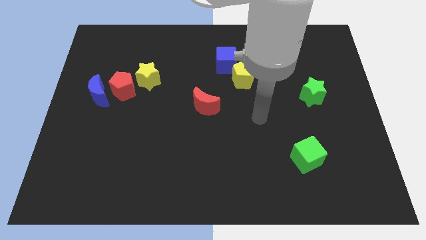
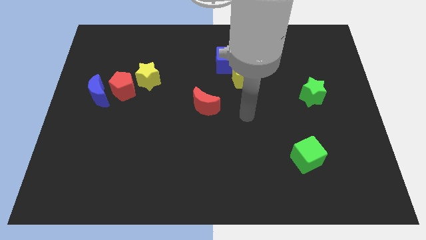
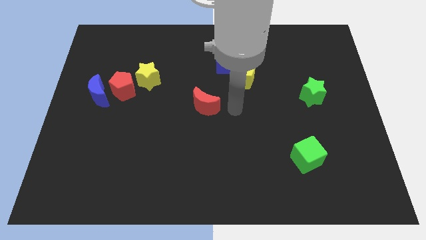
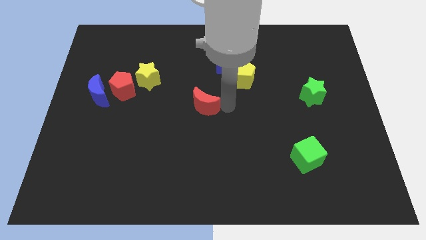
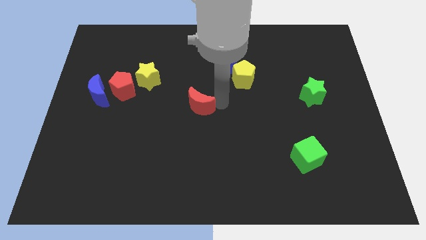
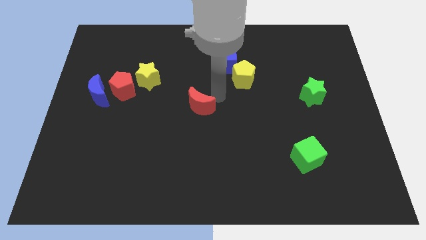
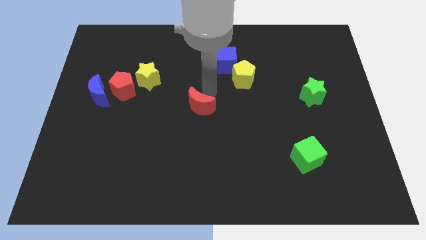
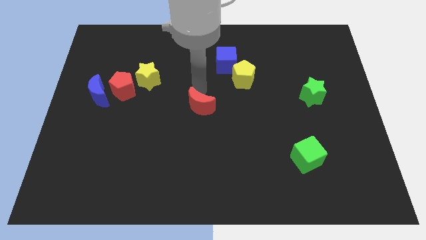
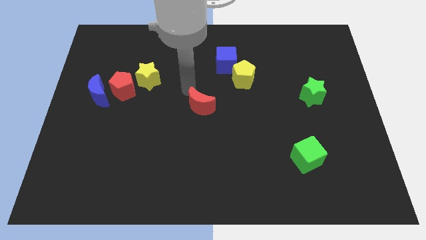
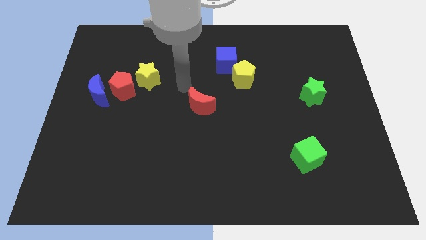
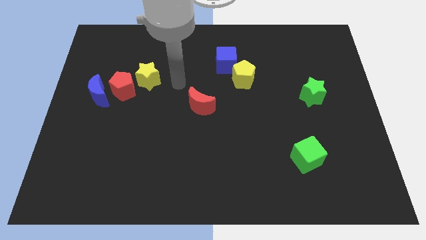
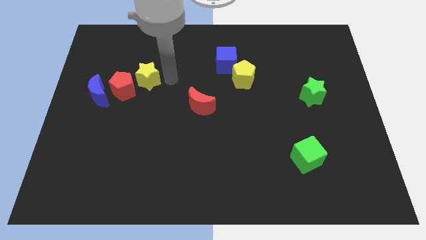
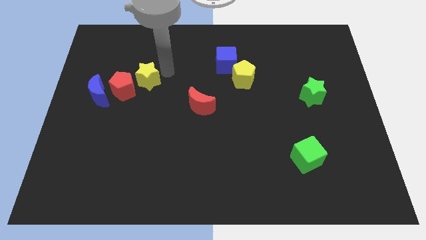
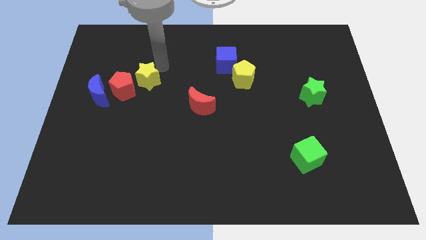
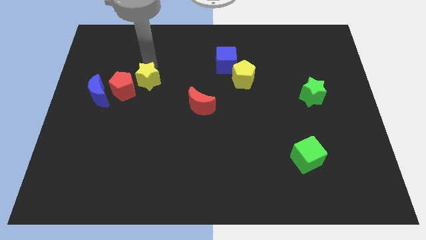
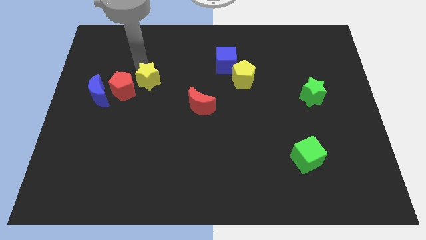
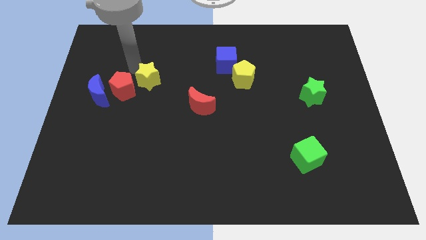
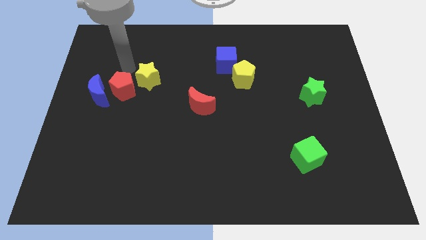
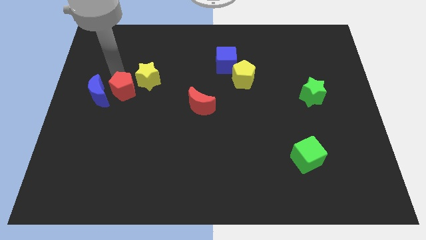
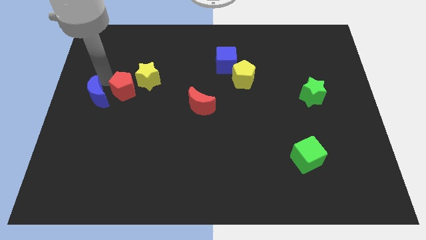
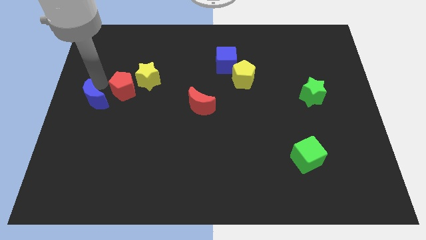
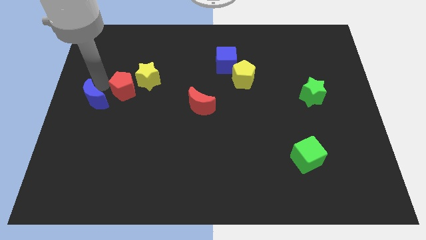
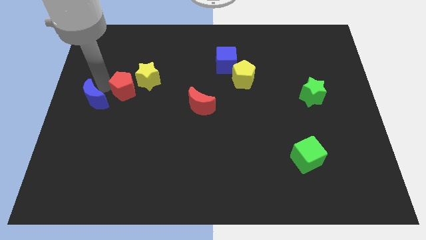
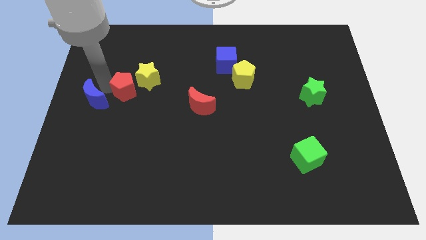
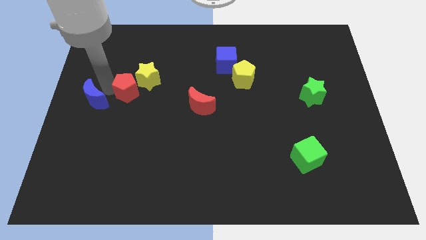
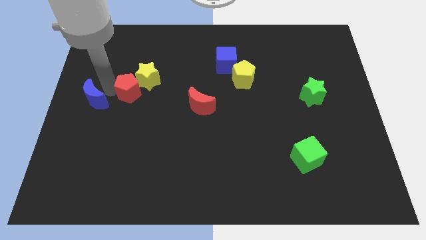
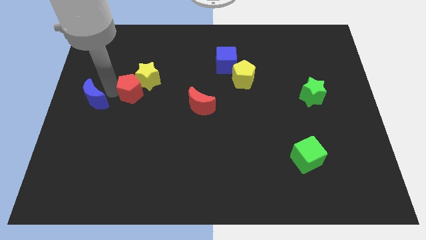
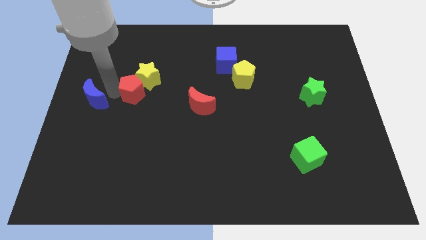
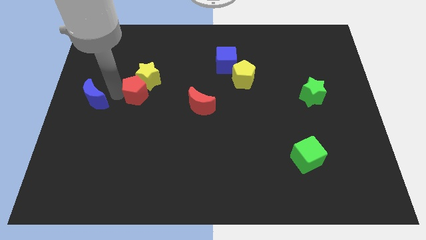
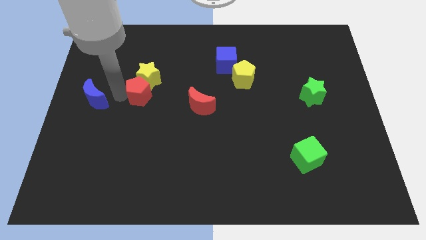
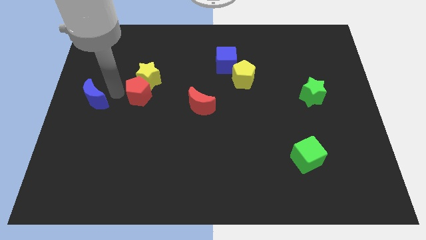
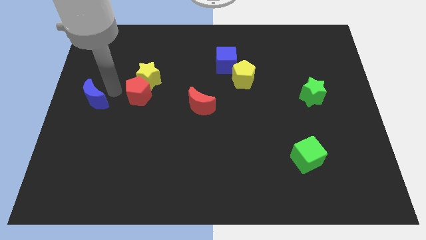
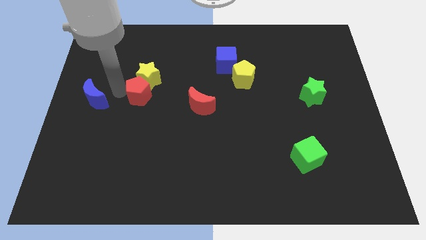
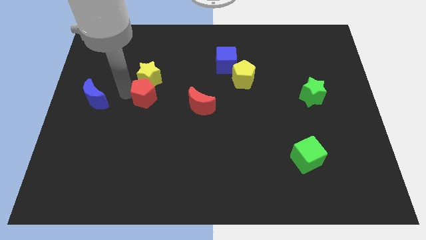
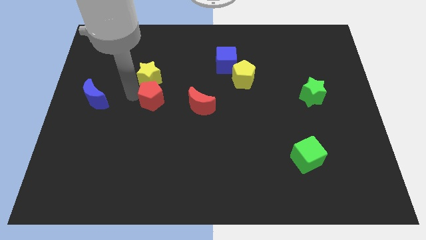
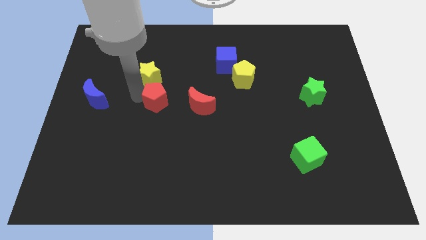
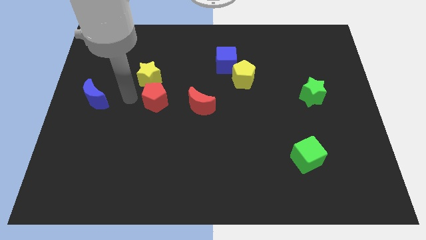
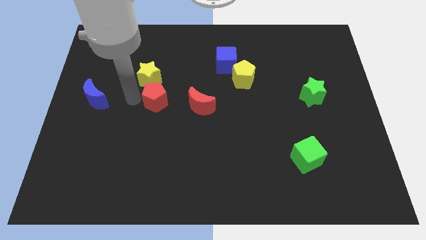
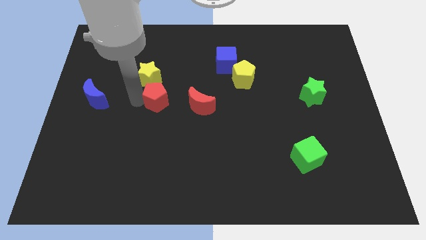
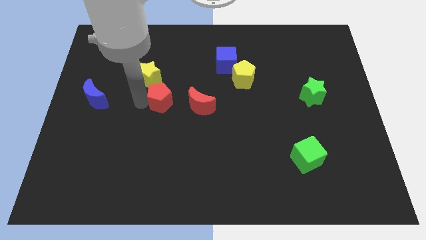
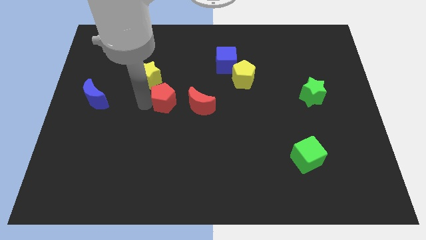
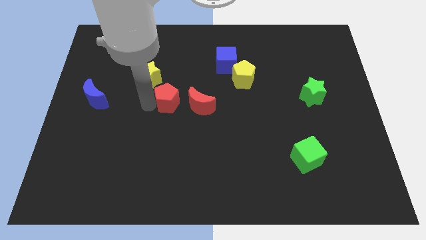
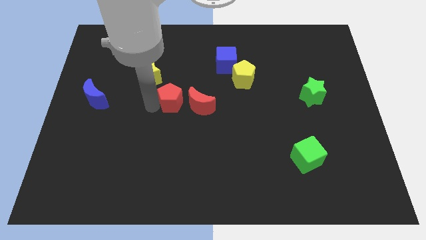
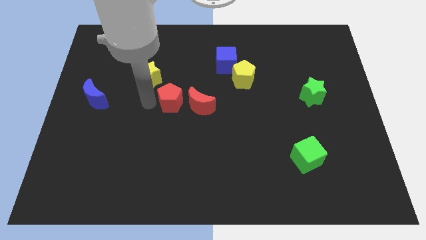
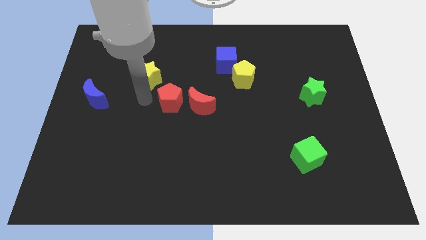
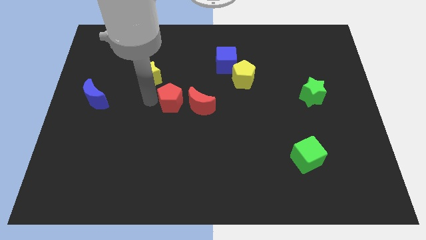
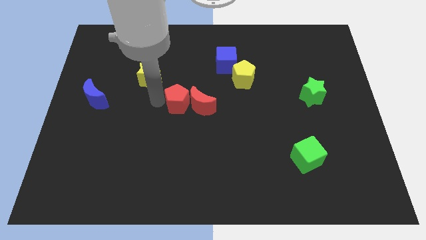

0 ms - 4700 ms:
push the red pentagon close to the red moon

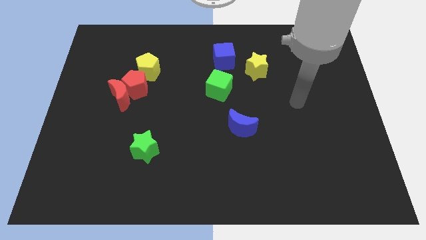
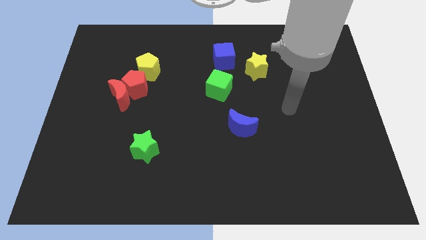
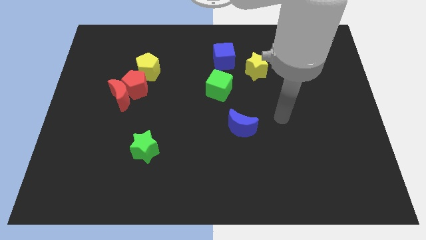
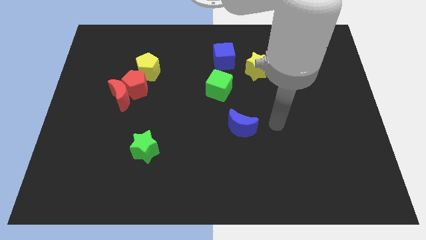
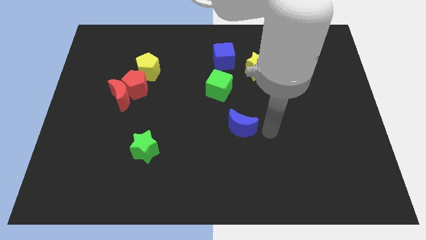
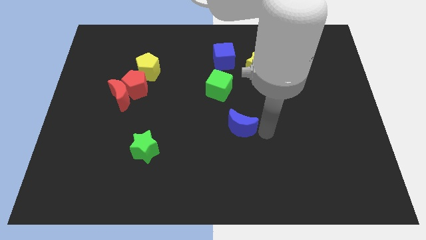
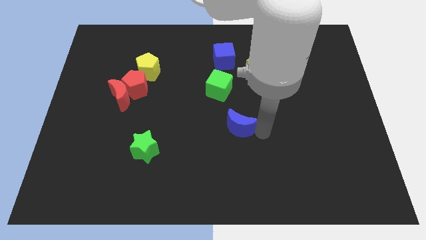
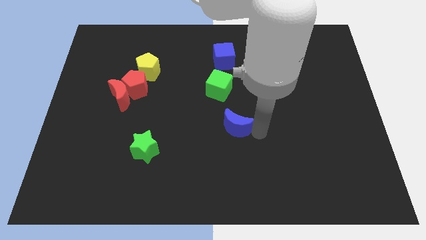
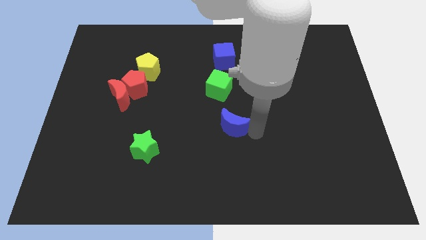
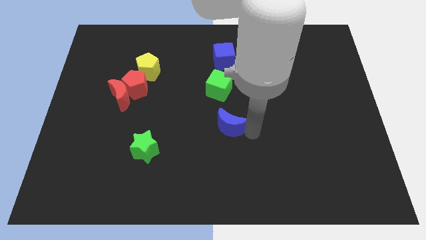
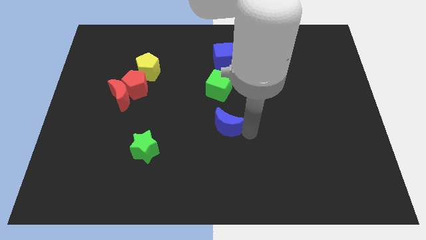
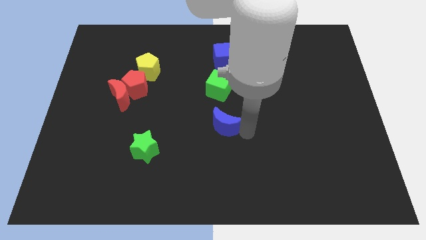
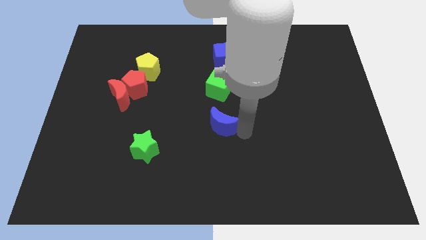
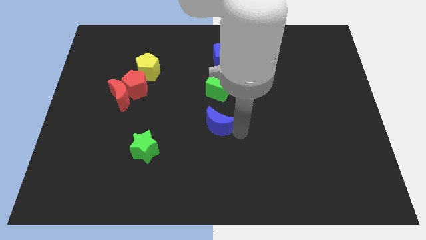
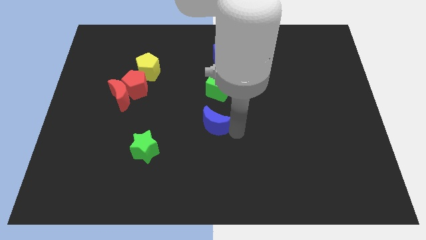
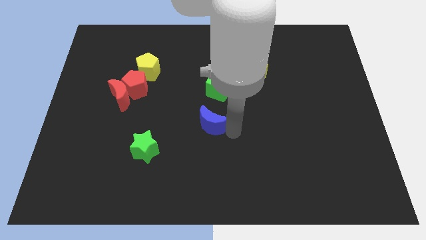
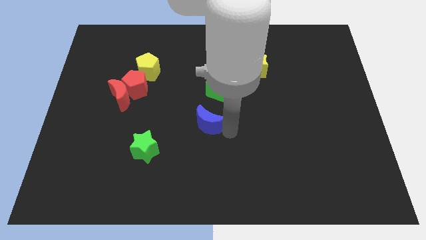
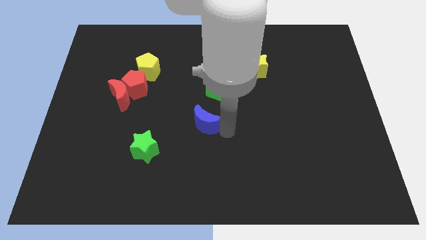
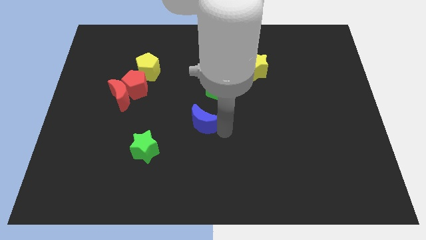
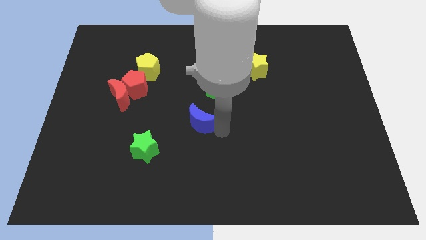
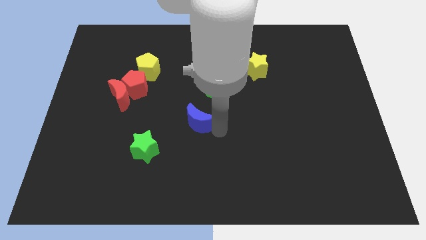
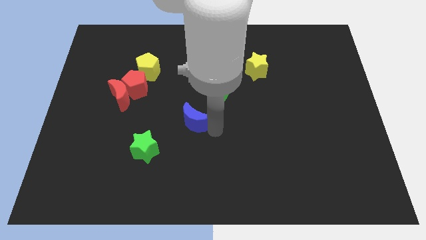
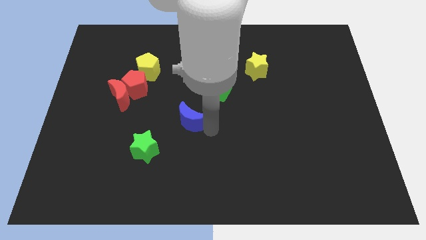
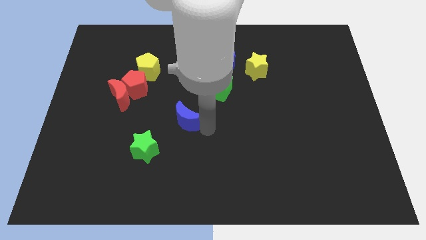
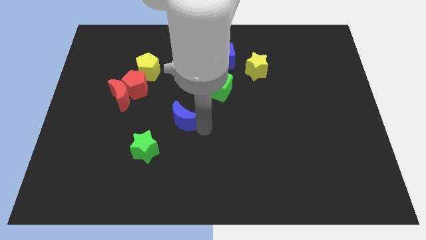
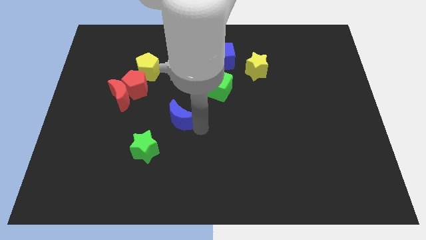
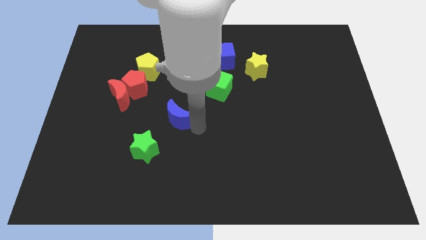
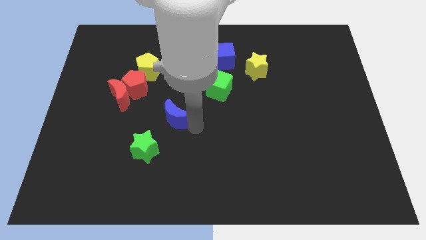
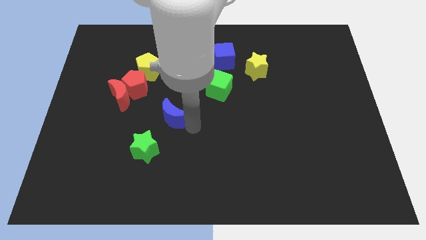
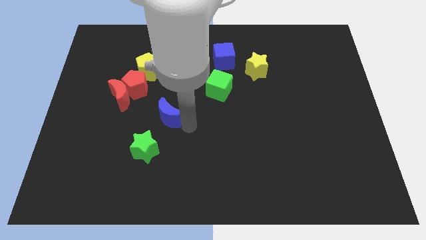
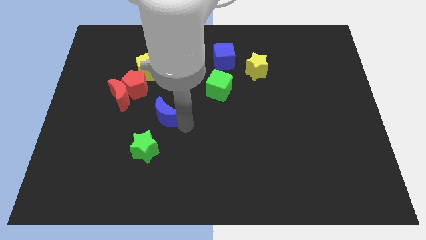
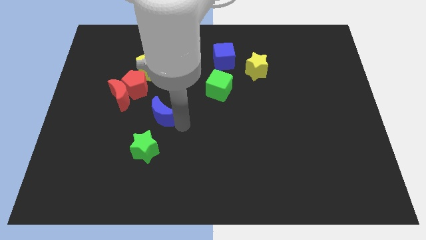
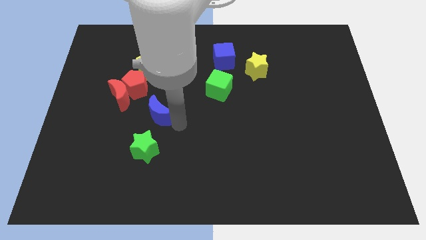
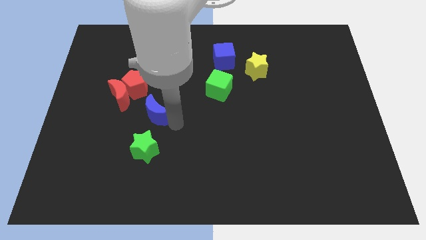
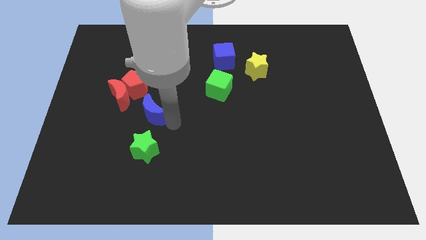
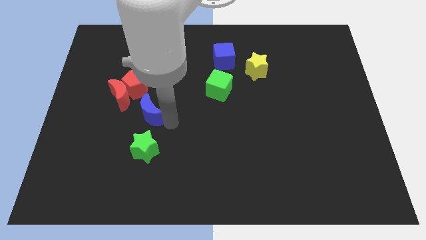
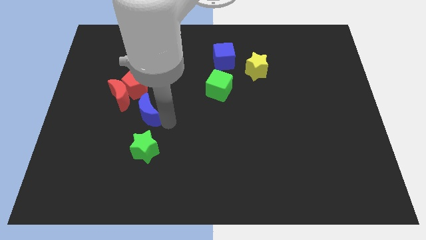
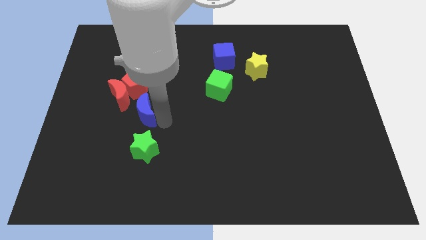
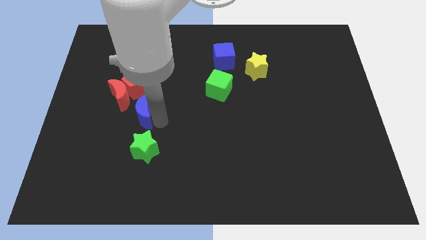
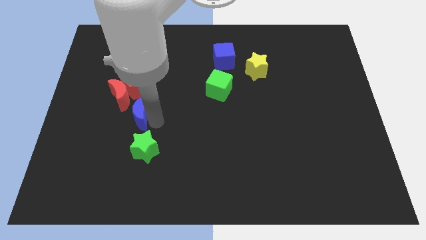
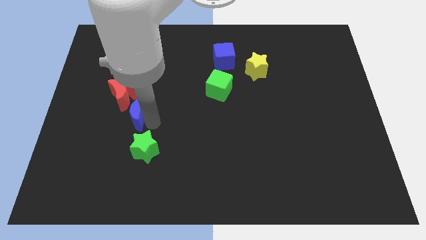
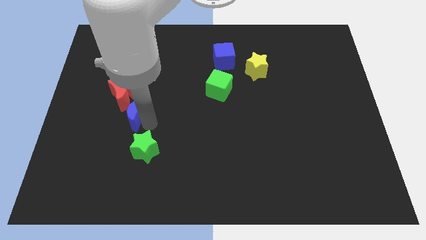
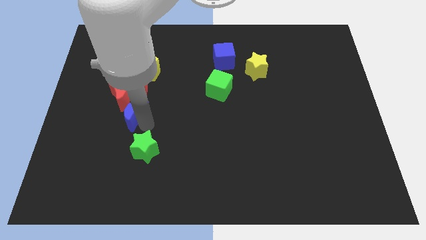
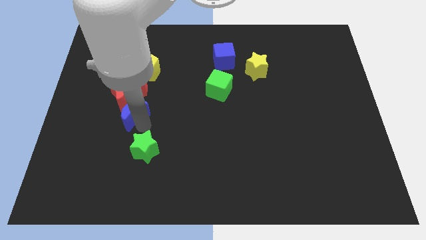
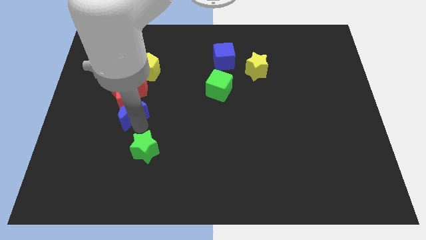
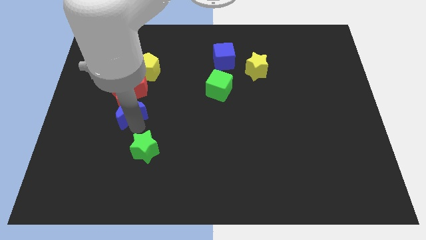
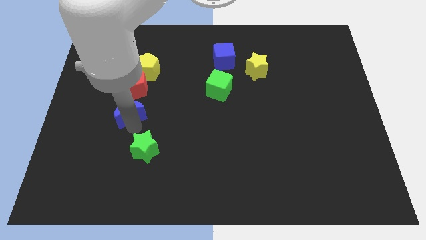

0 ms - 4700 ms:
push the blue moon close to the red moon
